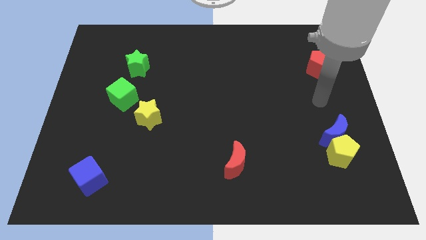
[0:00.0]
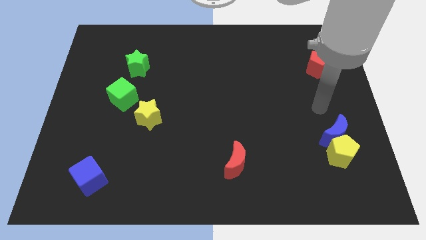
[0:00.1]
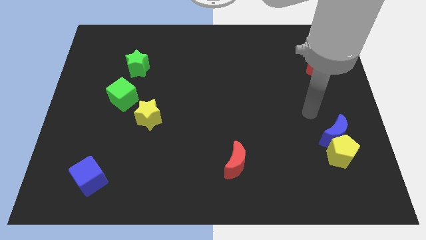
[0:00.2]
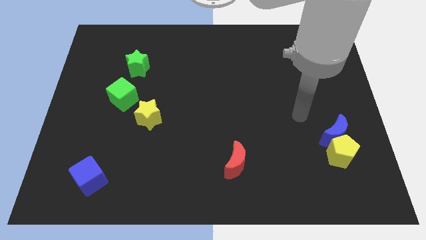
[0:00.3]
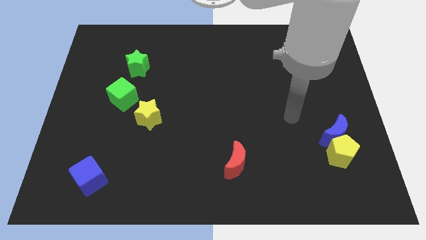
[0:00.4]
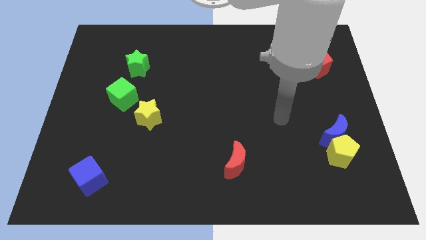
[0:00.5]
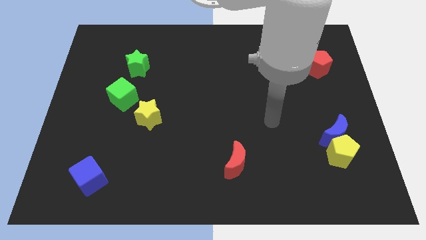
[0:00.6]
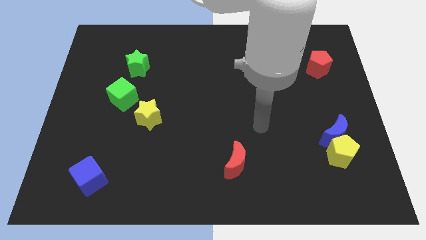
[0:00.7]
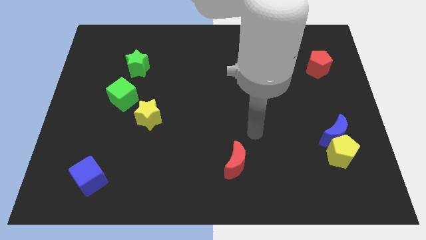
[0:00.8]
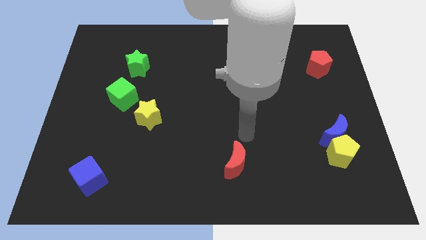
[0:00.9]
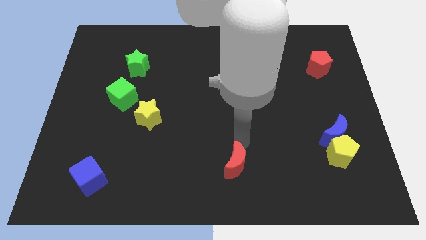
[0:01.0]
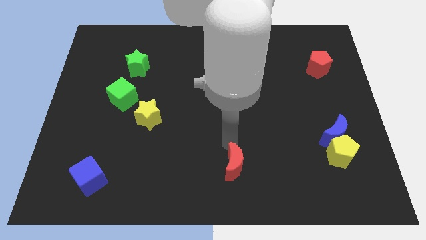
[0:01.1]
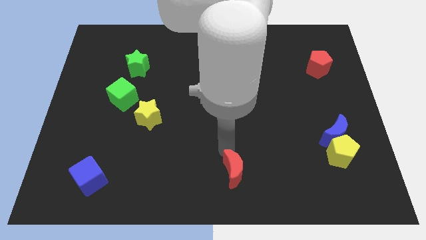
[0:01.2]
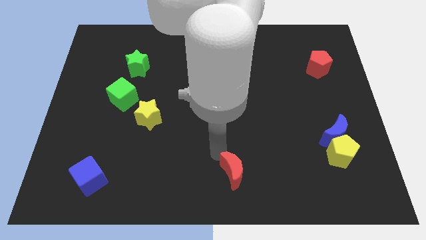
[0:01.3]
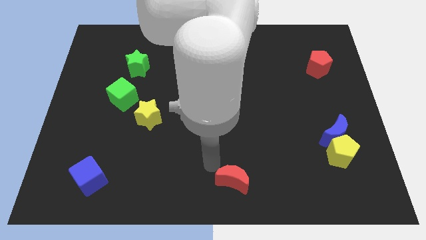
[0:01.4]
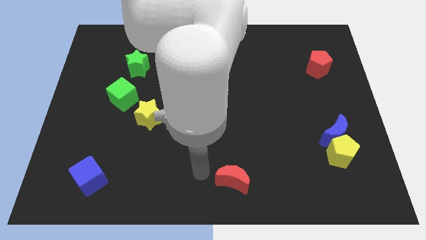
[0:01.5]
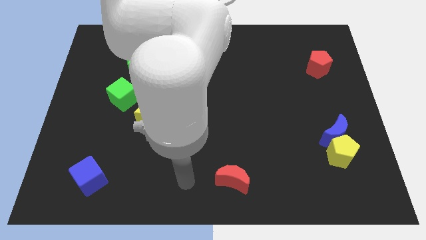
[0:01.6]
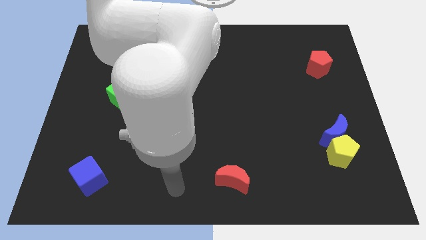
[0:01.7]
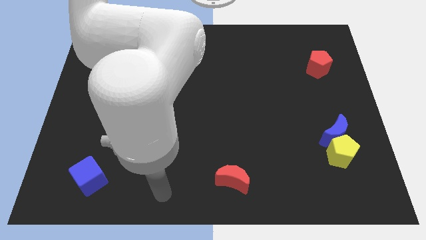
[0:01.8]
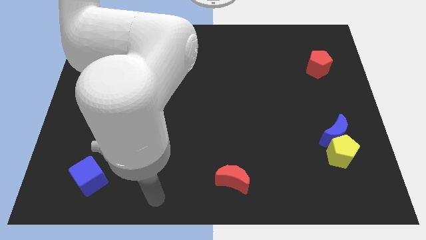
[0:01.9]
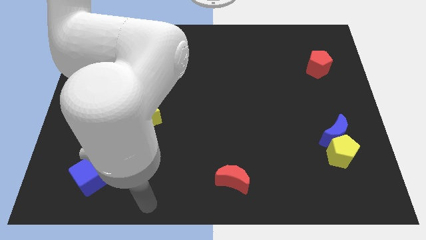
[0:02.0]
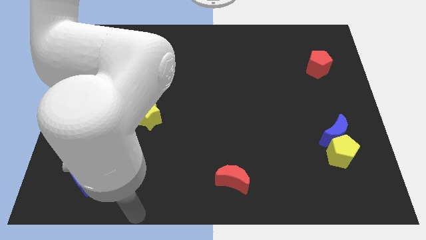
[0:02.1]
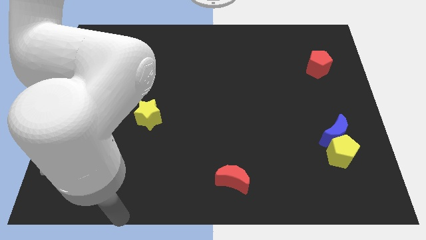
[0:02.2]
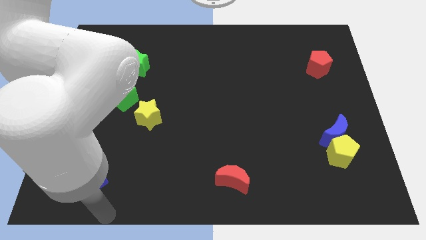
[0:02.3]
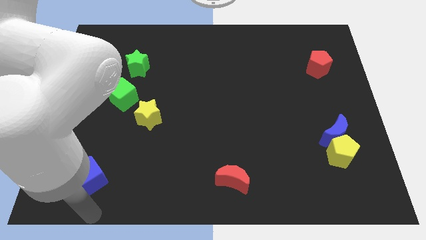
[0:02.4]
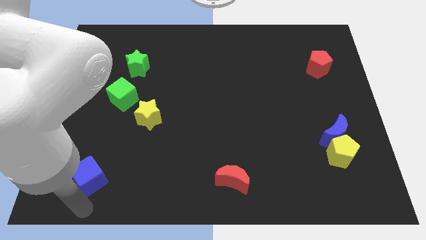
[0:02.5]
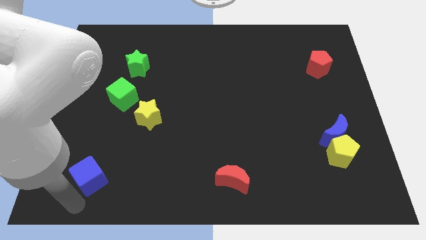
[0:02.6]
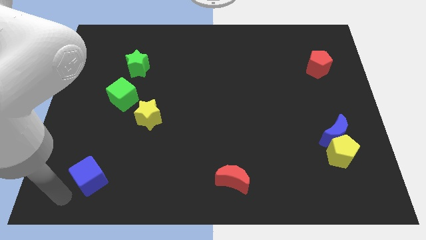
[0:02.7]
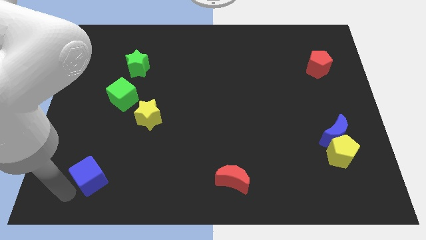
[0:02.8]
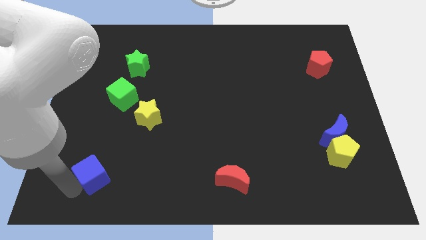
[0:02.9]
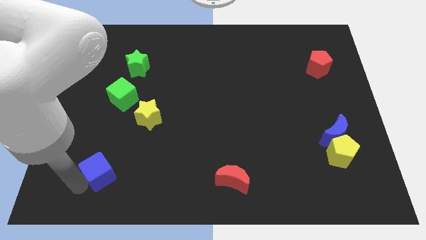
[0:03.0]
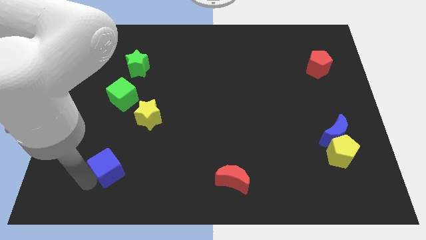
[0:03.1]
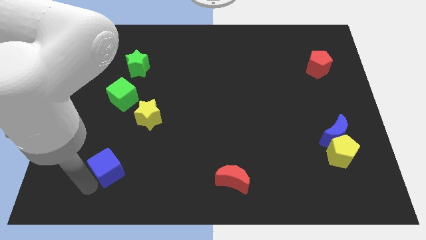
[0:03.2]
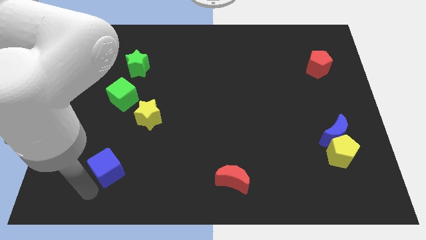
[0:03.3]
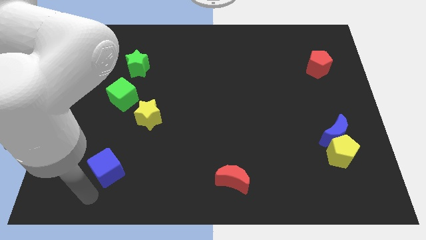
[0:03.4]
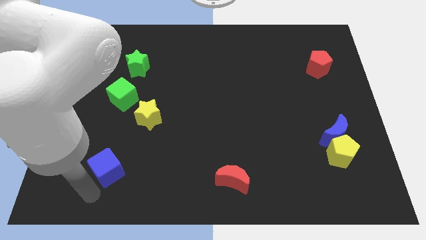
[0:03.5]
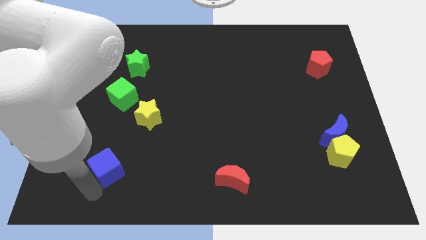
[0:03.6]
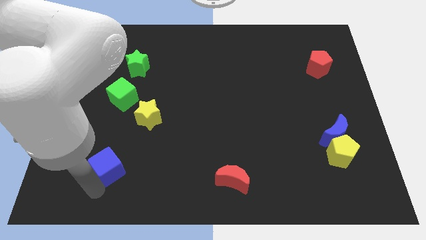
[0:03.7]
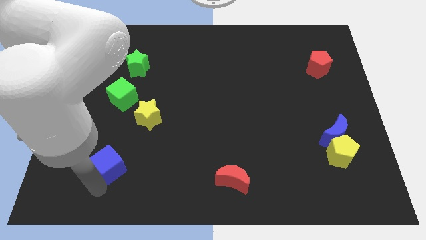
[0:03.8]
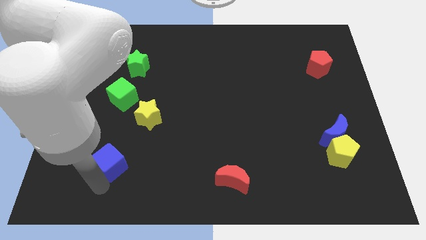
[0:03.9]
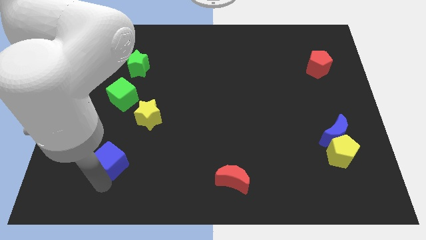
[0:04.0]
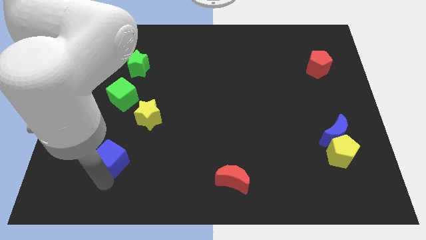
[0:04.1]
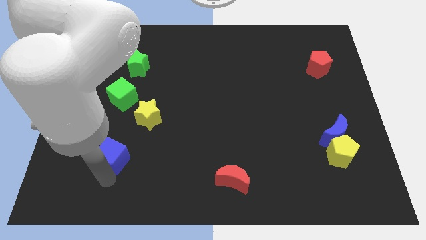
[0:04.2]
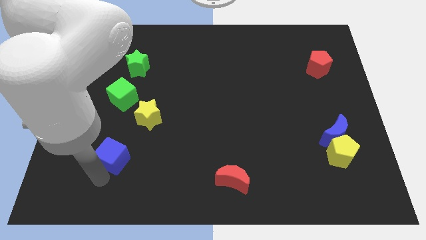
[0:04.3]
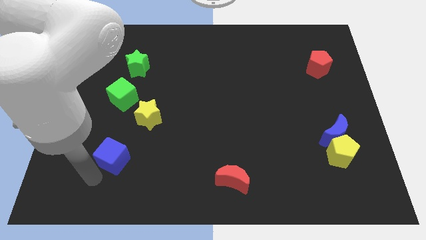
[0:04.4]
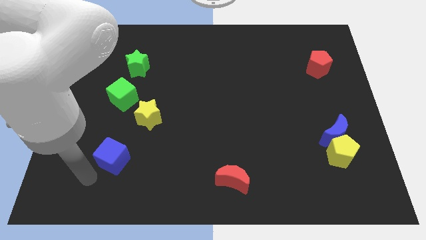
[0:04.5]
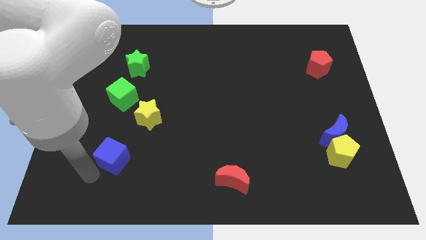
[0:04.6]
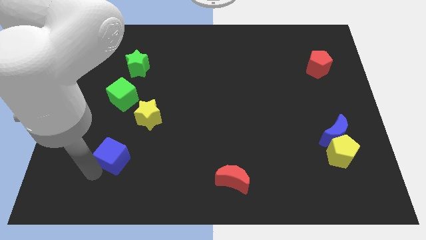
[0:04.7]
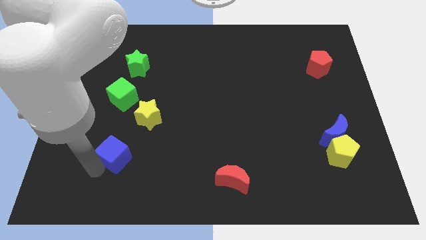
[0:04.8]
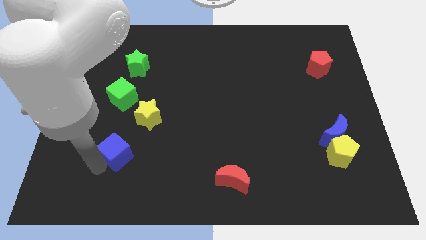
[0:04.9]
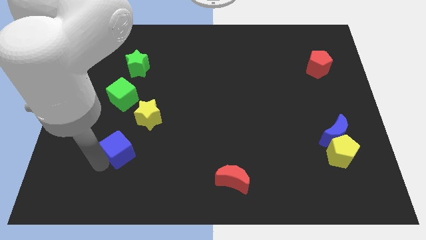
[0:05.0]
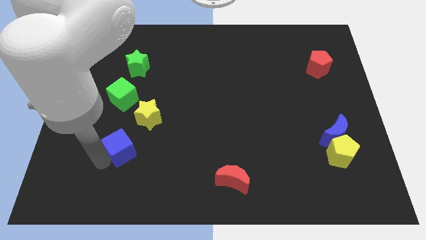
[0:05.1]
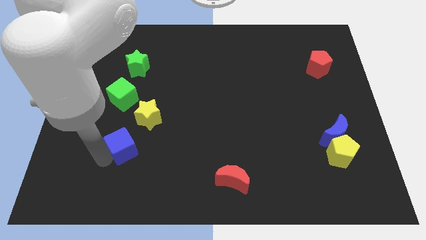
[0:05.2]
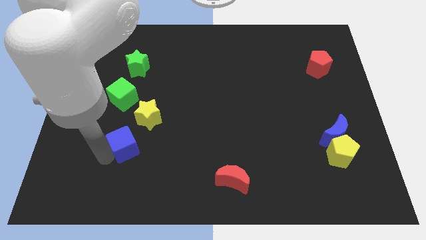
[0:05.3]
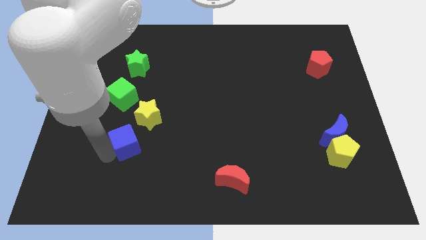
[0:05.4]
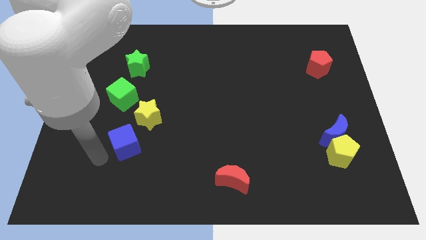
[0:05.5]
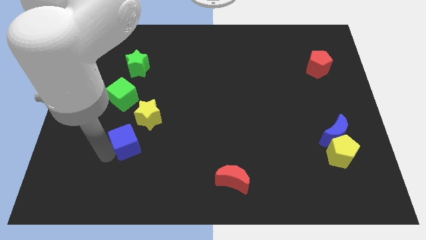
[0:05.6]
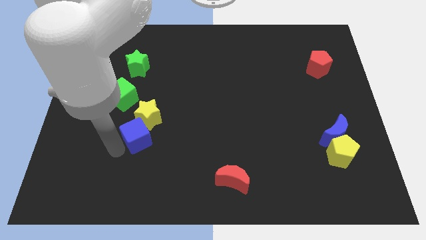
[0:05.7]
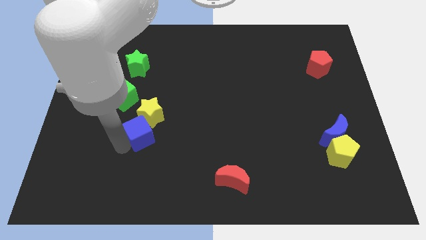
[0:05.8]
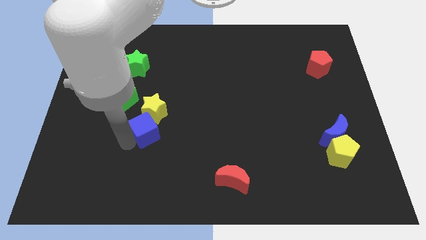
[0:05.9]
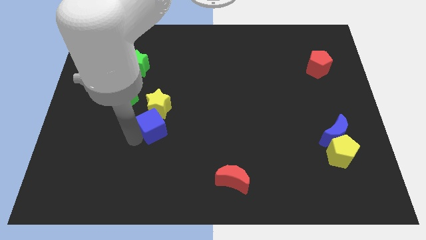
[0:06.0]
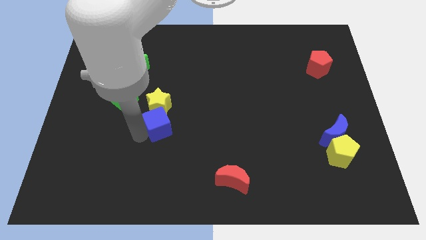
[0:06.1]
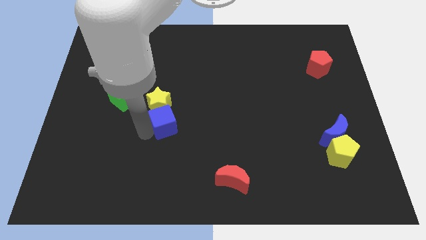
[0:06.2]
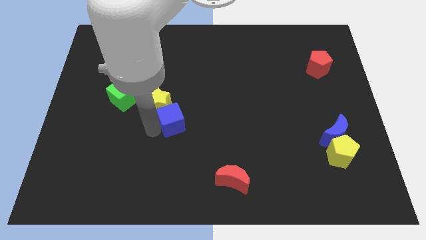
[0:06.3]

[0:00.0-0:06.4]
push the blue cube up and to the right

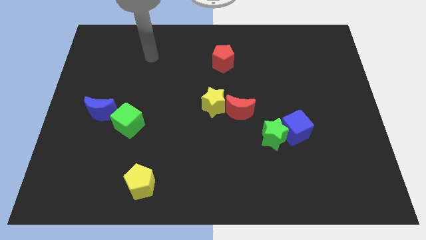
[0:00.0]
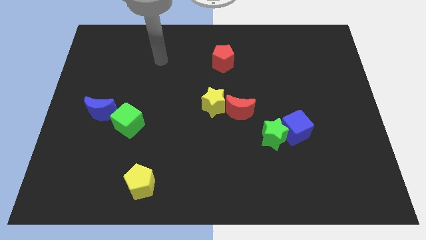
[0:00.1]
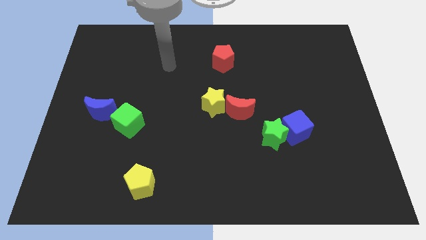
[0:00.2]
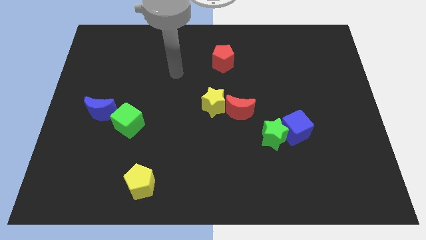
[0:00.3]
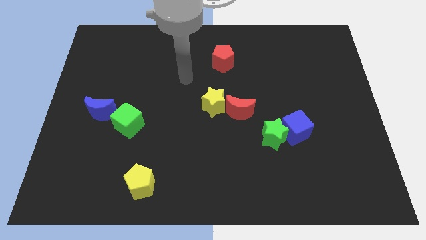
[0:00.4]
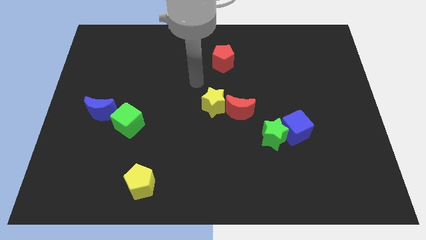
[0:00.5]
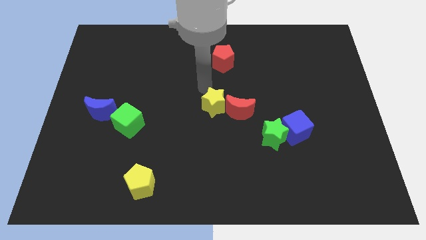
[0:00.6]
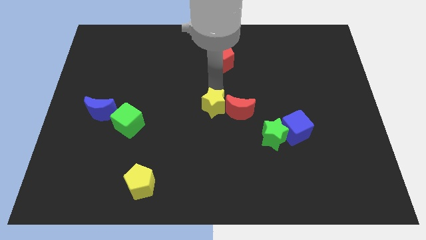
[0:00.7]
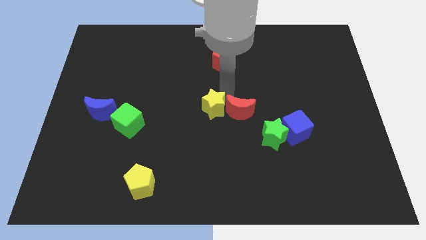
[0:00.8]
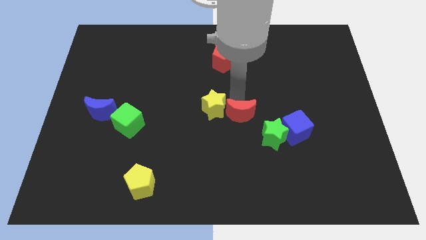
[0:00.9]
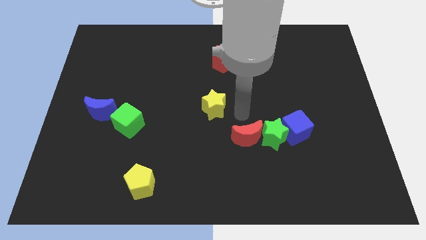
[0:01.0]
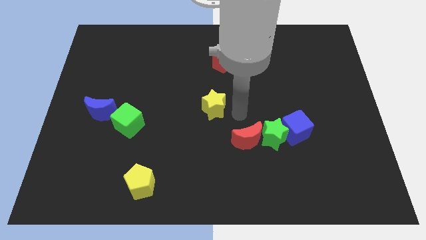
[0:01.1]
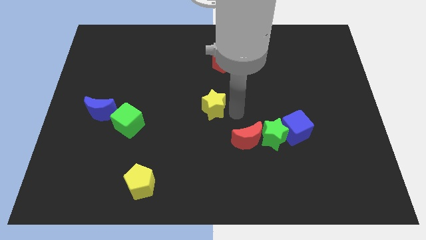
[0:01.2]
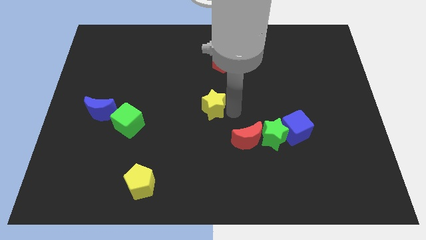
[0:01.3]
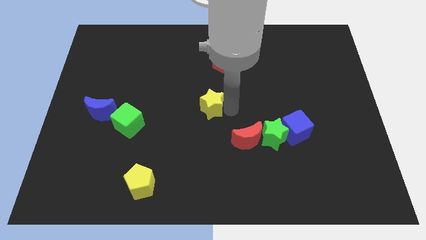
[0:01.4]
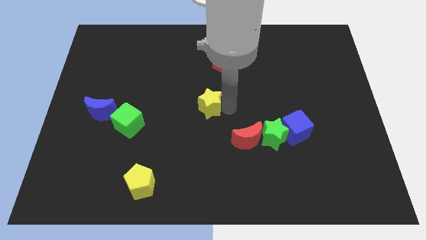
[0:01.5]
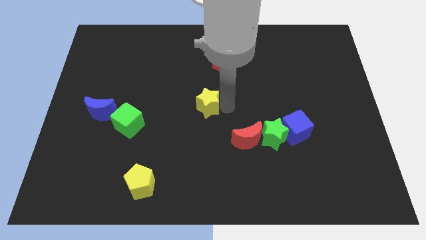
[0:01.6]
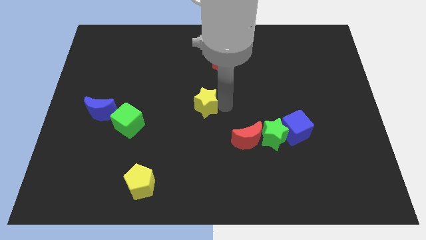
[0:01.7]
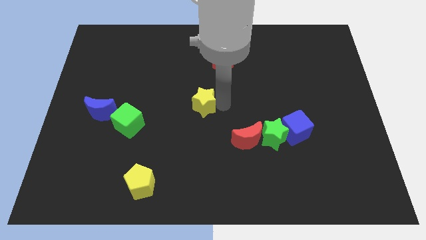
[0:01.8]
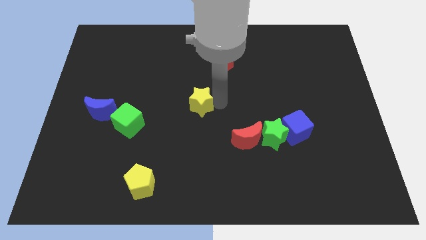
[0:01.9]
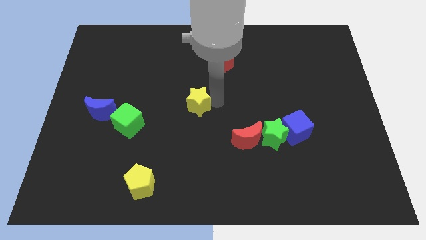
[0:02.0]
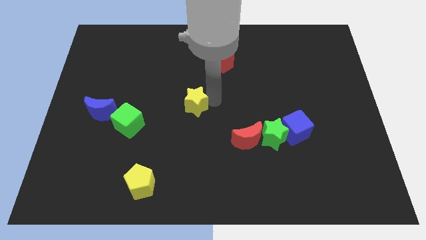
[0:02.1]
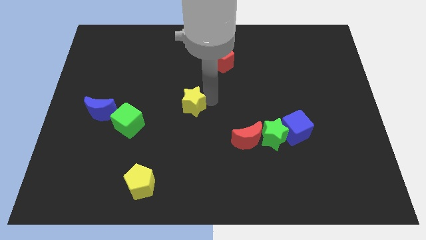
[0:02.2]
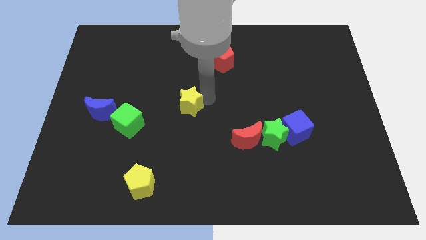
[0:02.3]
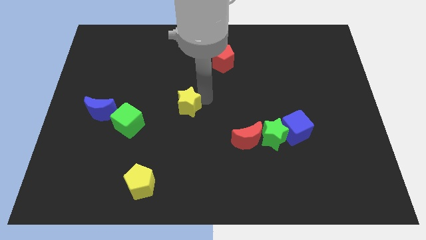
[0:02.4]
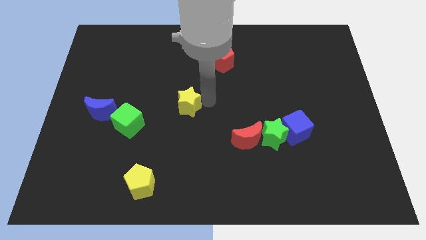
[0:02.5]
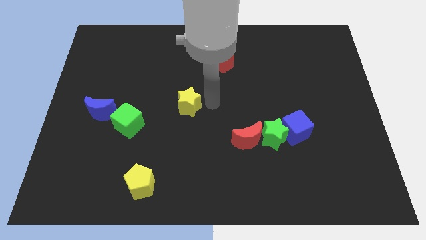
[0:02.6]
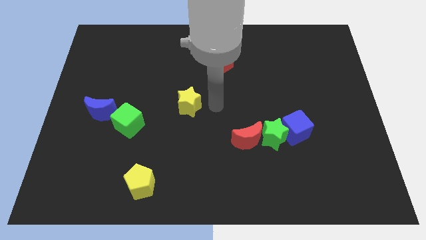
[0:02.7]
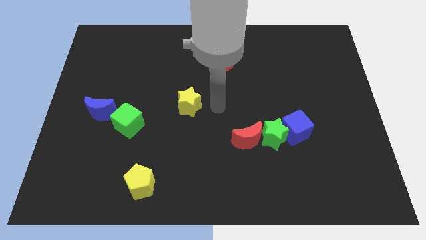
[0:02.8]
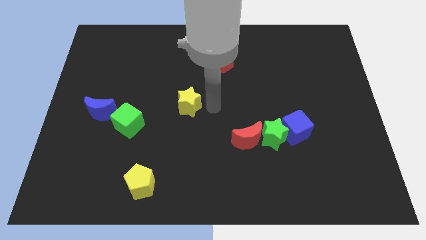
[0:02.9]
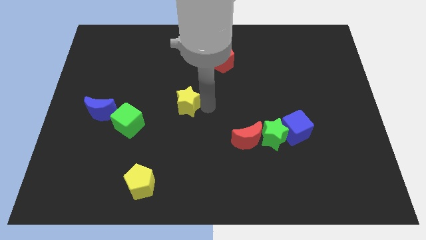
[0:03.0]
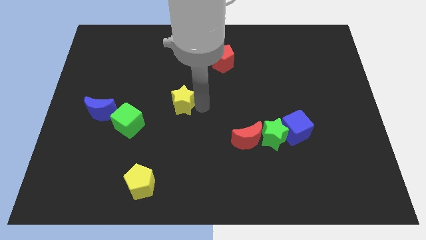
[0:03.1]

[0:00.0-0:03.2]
slide the yellow star to the left a little
